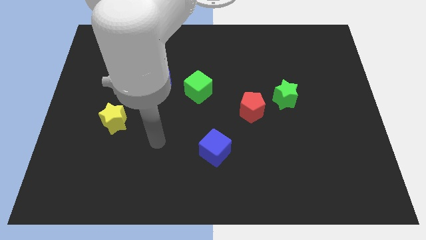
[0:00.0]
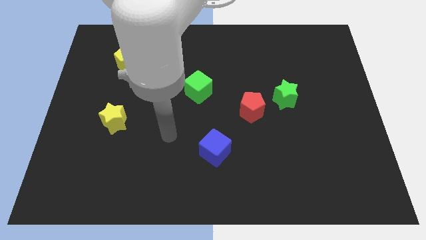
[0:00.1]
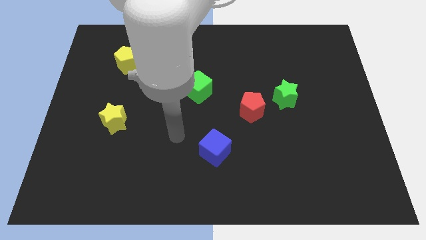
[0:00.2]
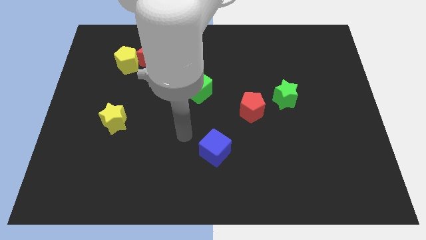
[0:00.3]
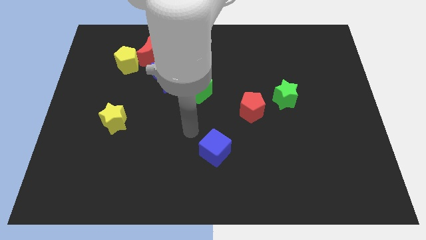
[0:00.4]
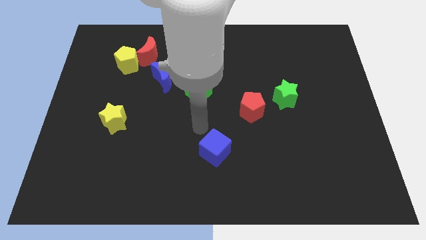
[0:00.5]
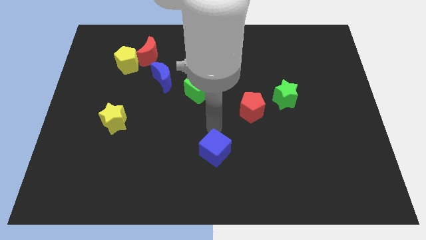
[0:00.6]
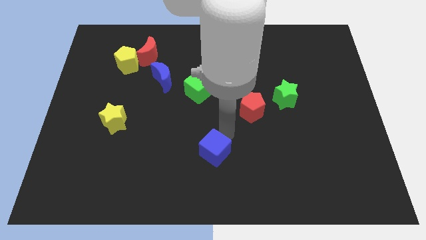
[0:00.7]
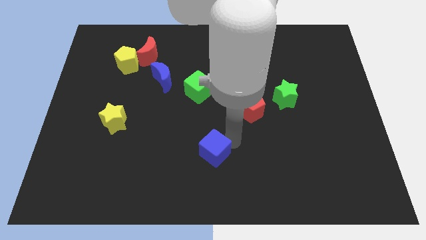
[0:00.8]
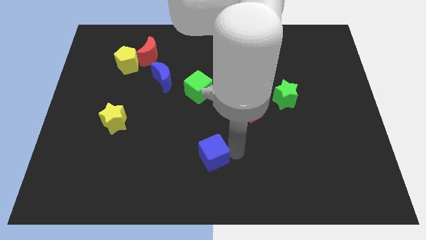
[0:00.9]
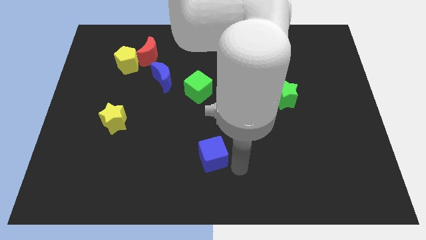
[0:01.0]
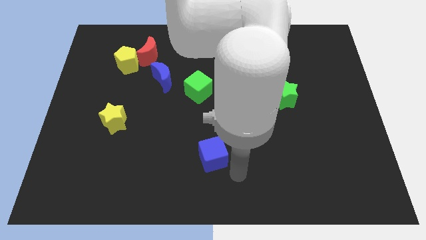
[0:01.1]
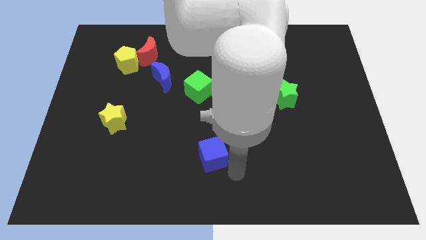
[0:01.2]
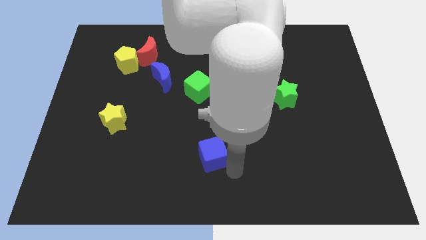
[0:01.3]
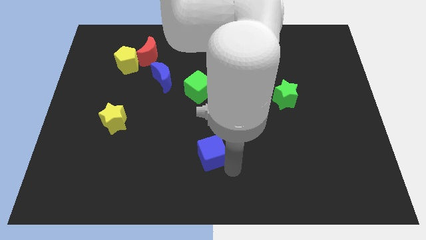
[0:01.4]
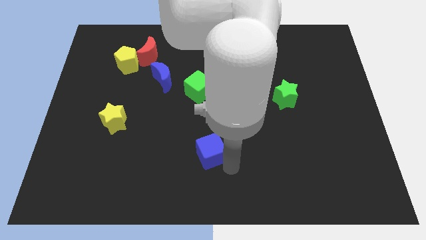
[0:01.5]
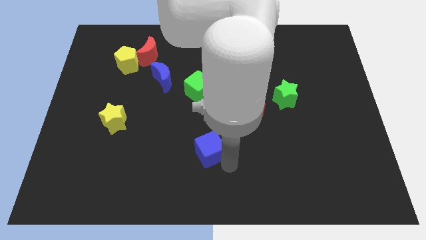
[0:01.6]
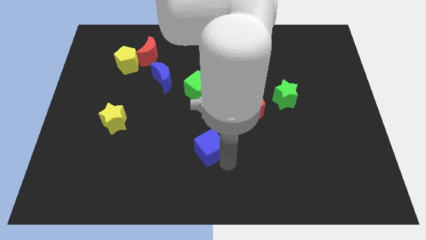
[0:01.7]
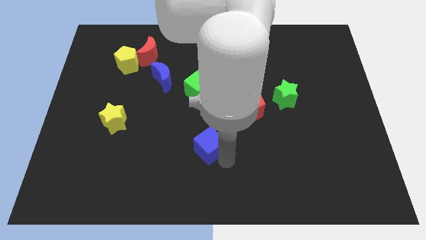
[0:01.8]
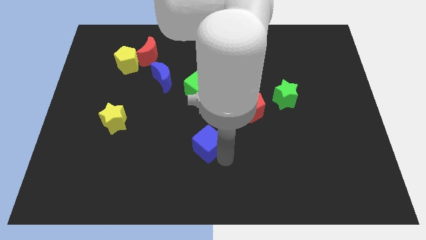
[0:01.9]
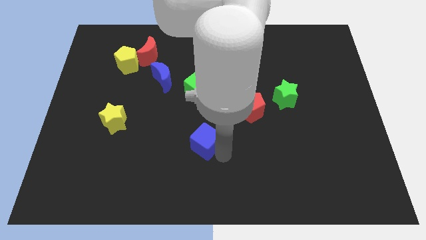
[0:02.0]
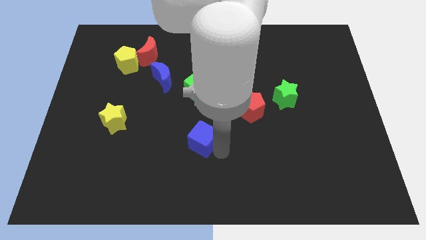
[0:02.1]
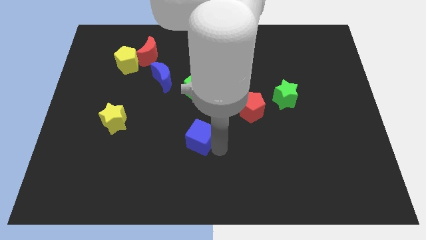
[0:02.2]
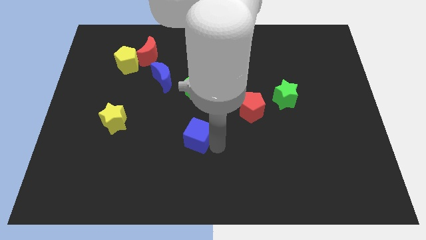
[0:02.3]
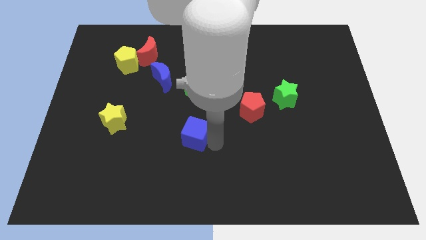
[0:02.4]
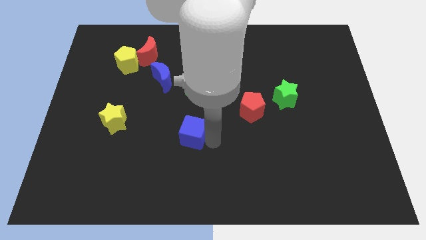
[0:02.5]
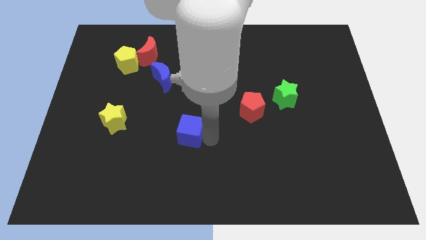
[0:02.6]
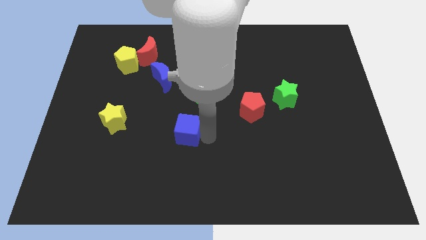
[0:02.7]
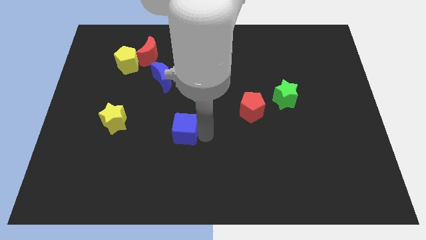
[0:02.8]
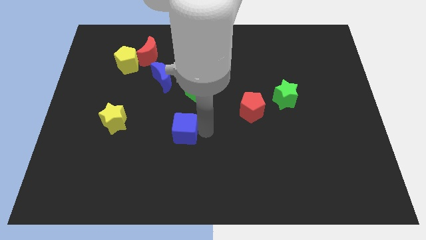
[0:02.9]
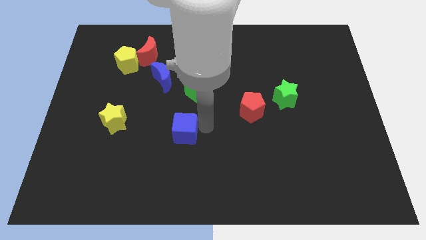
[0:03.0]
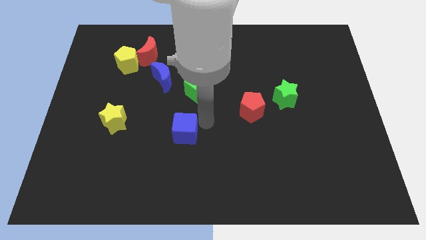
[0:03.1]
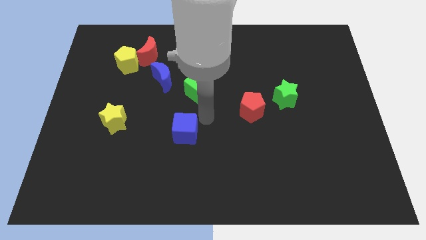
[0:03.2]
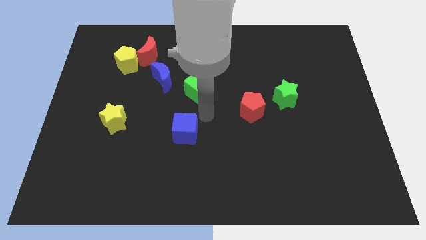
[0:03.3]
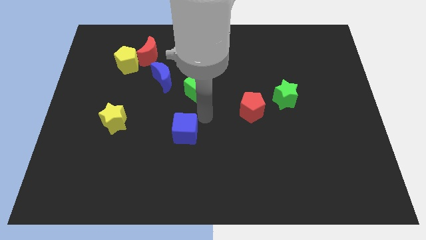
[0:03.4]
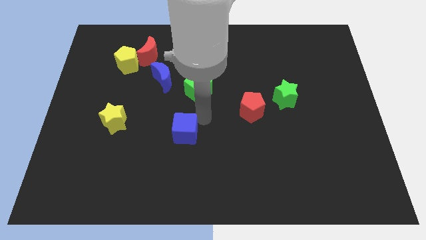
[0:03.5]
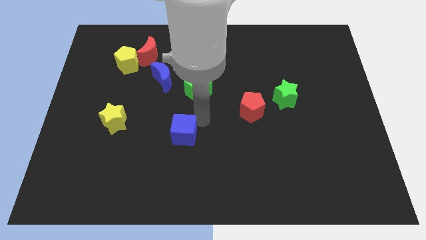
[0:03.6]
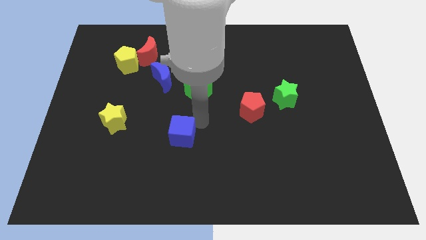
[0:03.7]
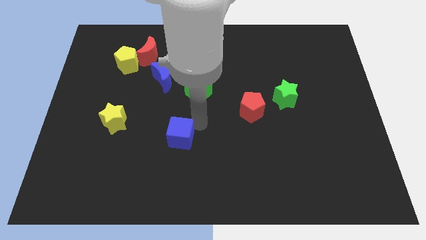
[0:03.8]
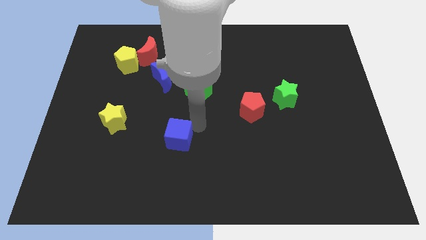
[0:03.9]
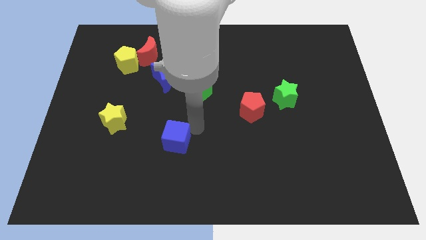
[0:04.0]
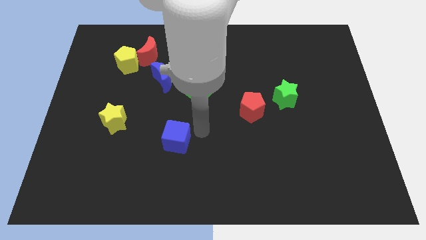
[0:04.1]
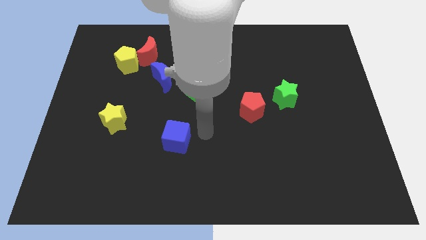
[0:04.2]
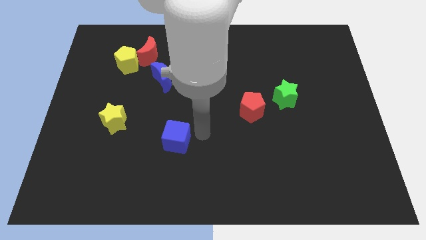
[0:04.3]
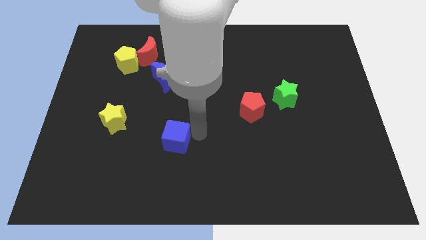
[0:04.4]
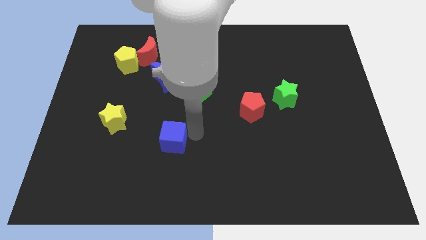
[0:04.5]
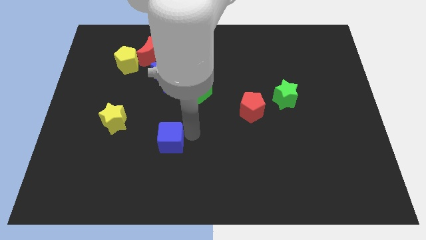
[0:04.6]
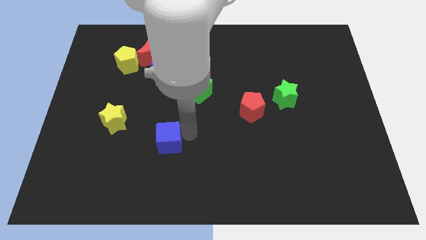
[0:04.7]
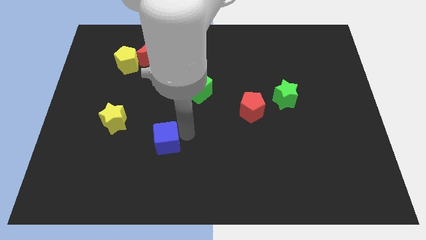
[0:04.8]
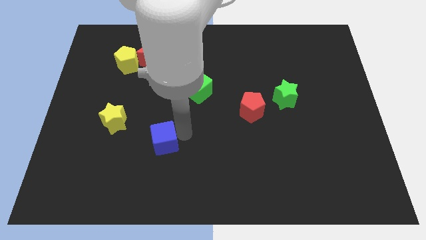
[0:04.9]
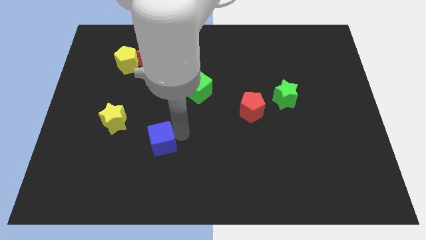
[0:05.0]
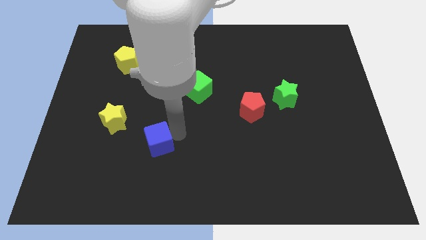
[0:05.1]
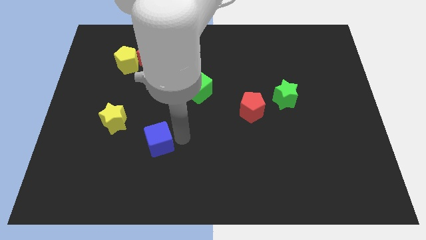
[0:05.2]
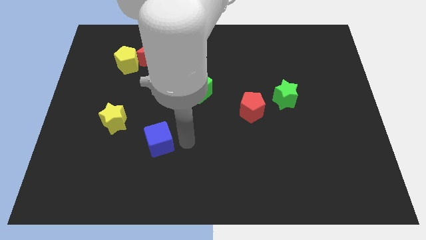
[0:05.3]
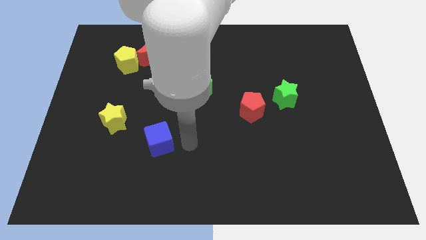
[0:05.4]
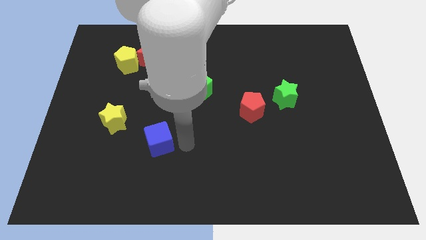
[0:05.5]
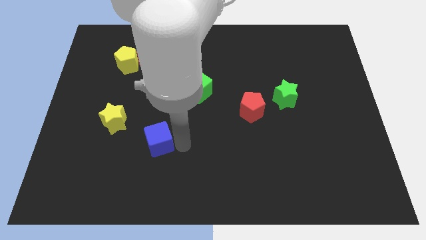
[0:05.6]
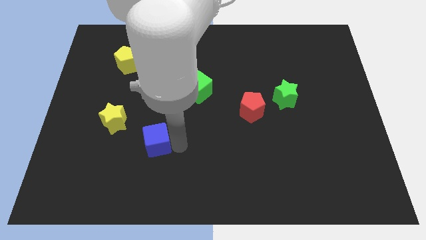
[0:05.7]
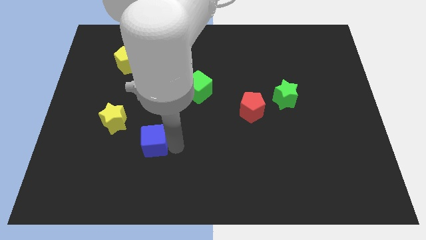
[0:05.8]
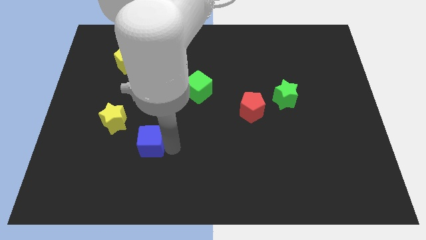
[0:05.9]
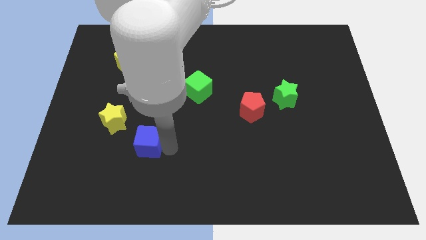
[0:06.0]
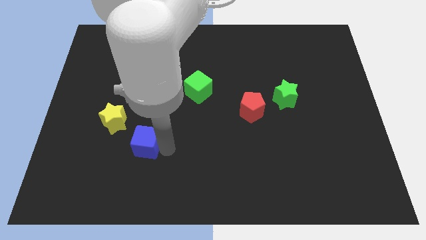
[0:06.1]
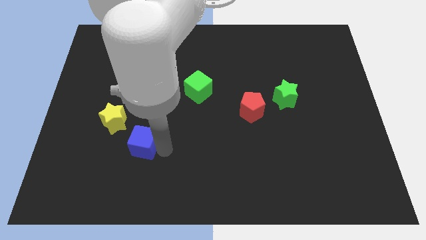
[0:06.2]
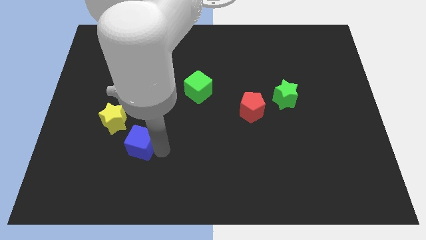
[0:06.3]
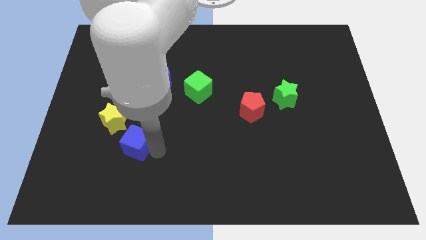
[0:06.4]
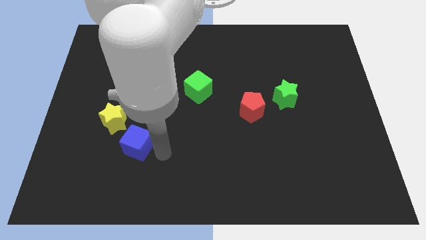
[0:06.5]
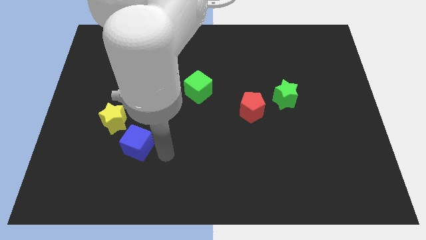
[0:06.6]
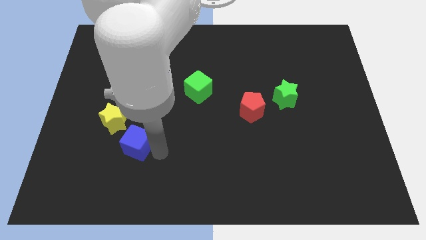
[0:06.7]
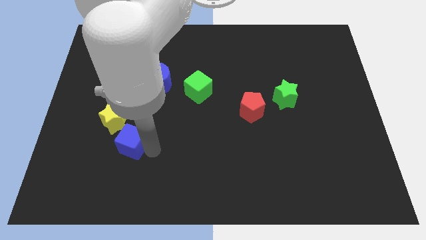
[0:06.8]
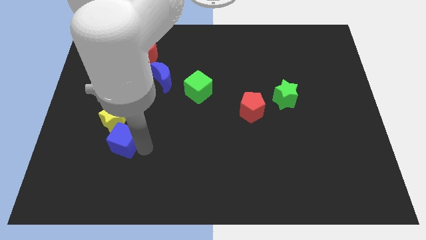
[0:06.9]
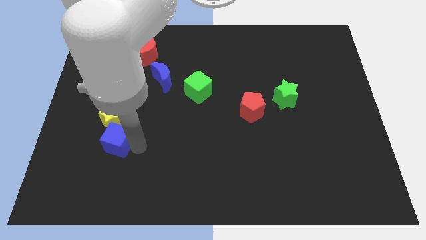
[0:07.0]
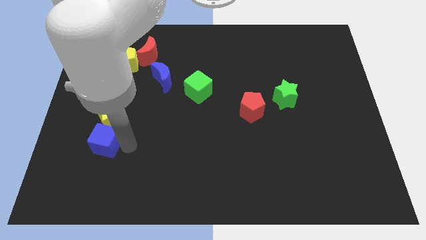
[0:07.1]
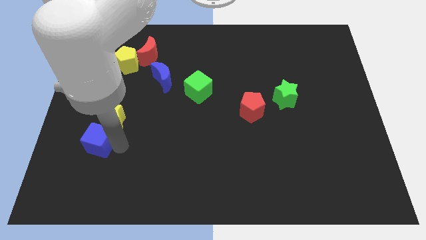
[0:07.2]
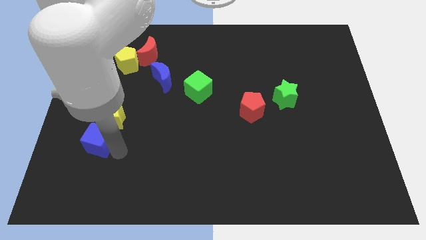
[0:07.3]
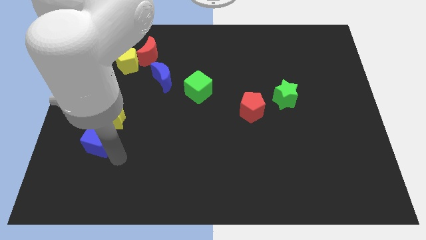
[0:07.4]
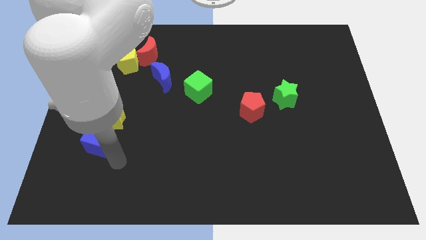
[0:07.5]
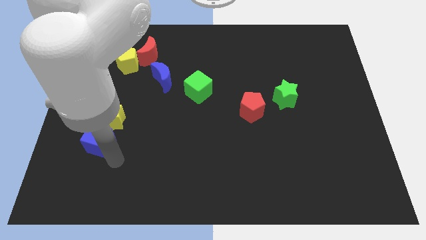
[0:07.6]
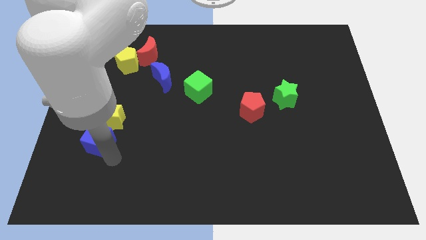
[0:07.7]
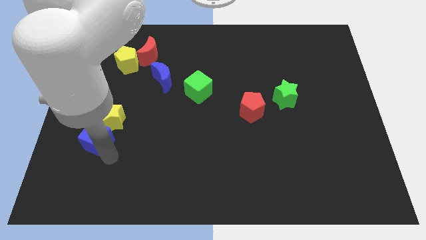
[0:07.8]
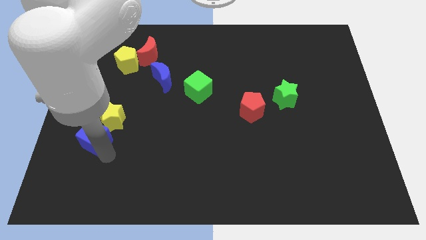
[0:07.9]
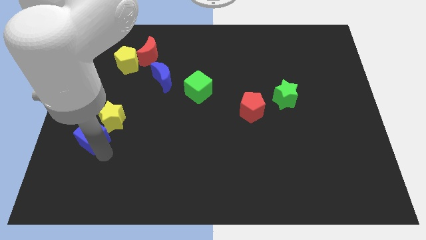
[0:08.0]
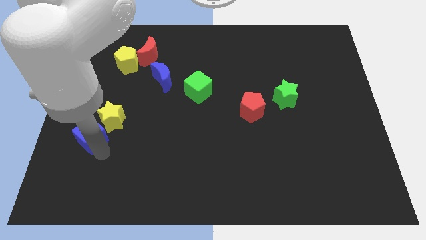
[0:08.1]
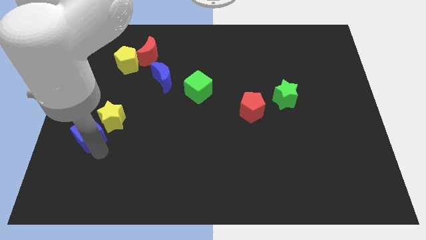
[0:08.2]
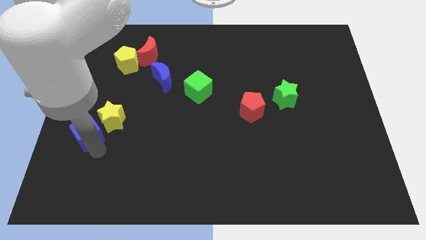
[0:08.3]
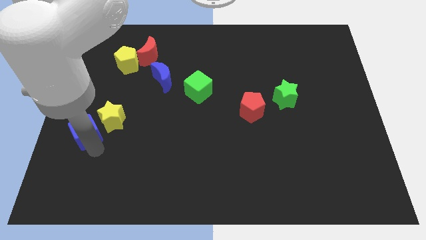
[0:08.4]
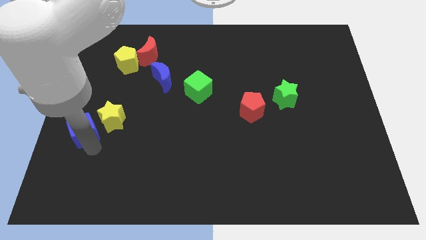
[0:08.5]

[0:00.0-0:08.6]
push the blue cube to the left side of the board
